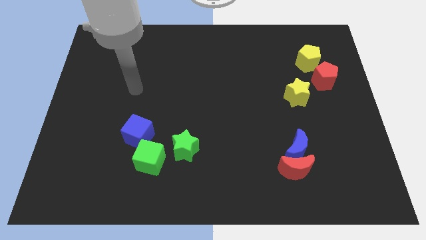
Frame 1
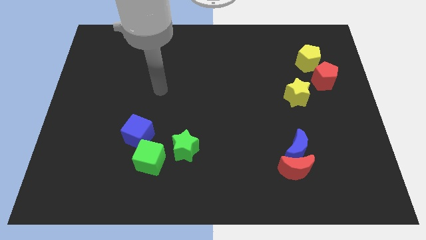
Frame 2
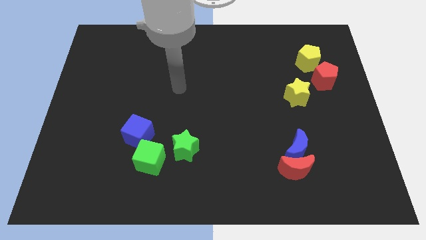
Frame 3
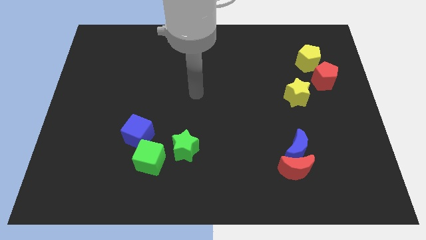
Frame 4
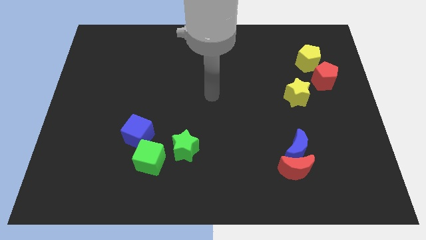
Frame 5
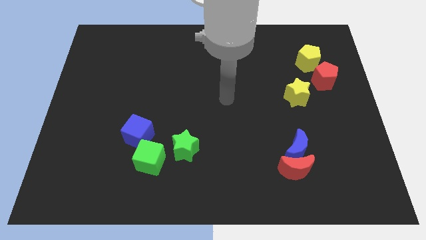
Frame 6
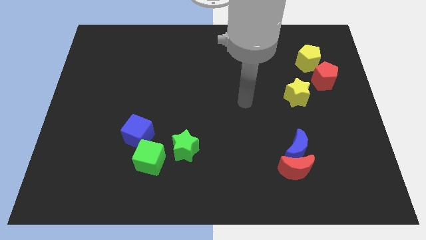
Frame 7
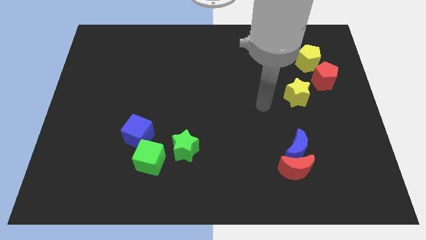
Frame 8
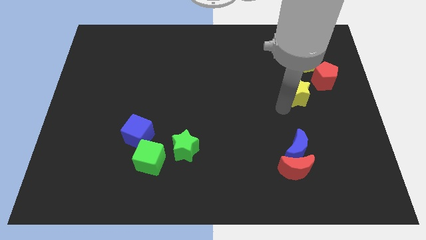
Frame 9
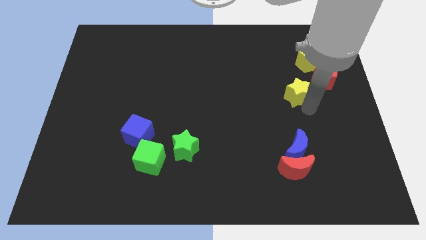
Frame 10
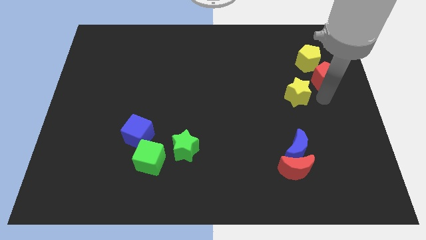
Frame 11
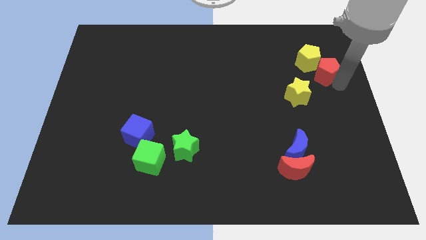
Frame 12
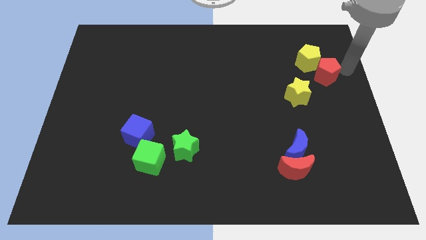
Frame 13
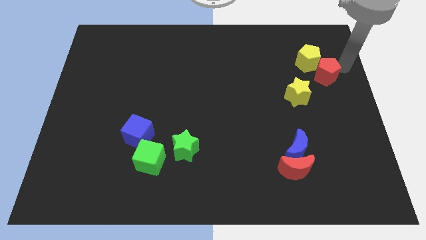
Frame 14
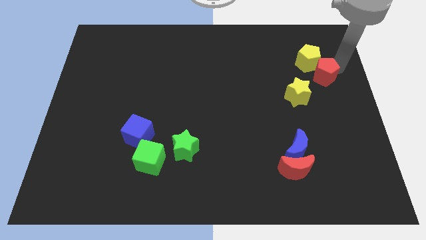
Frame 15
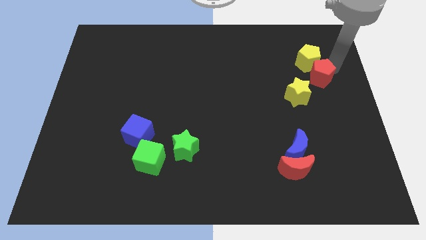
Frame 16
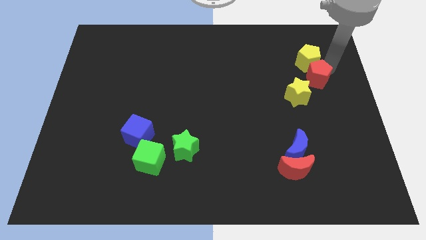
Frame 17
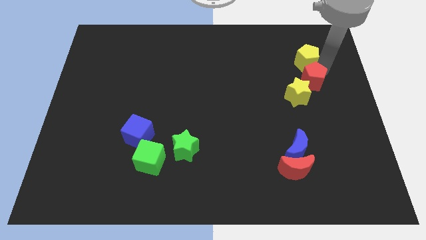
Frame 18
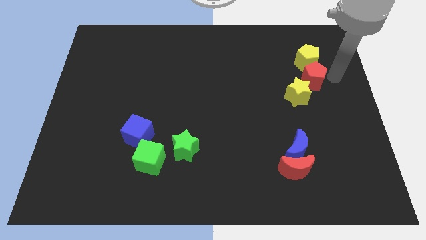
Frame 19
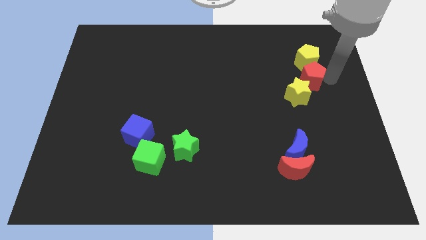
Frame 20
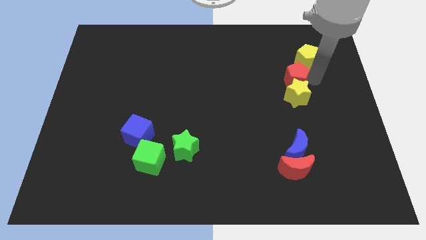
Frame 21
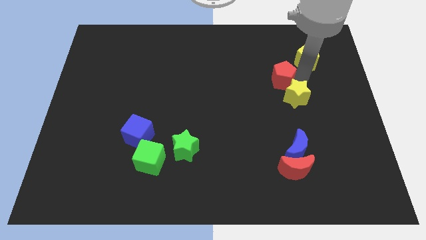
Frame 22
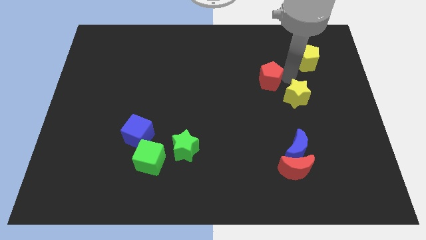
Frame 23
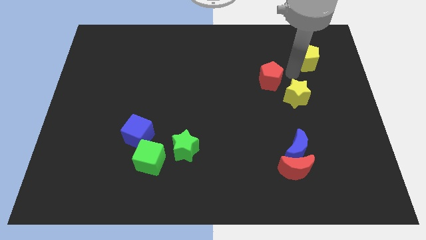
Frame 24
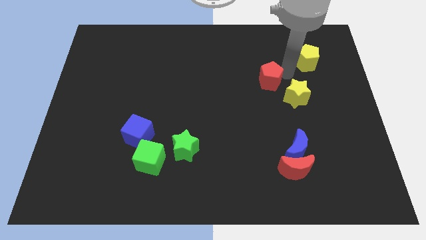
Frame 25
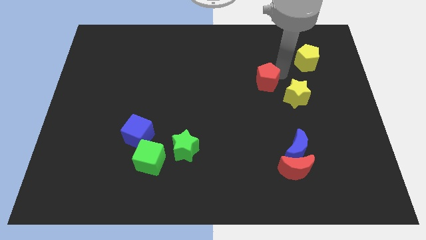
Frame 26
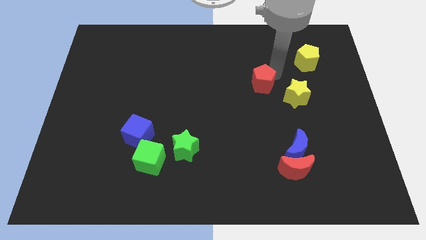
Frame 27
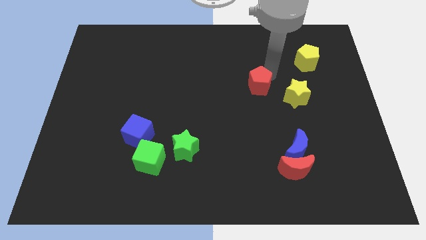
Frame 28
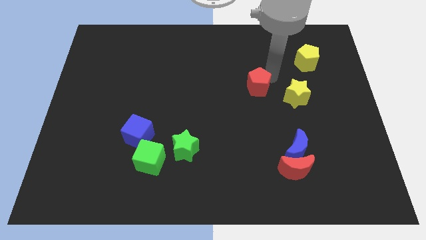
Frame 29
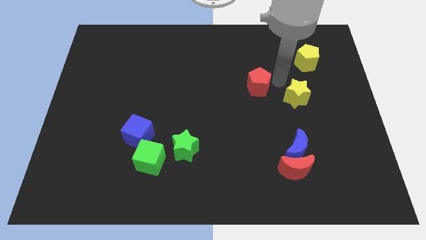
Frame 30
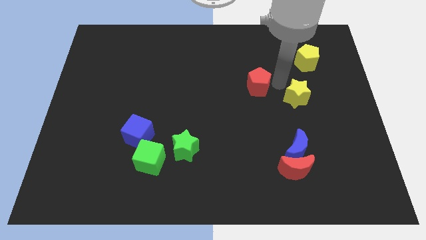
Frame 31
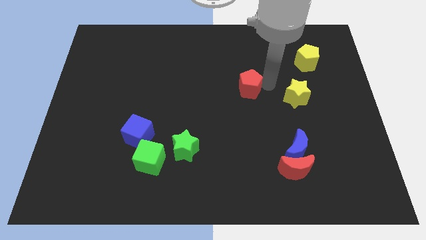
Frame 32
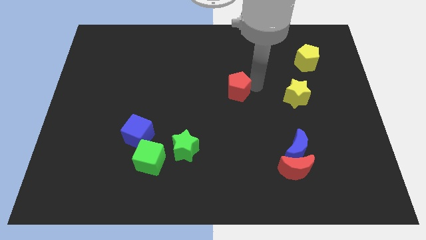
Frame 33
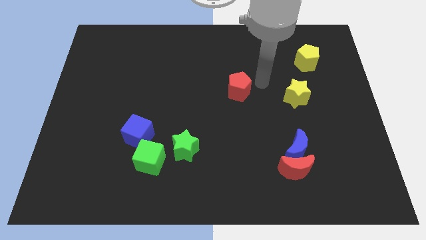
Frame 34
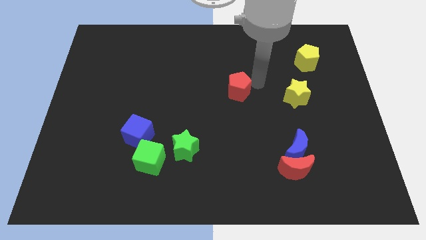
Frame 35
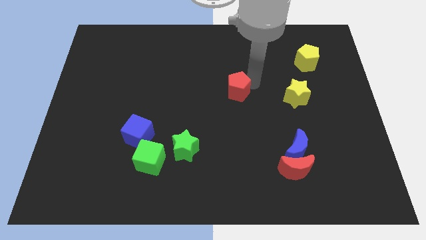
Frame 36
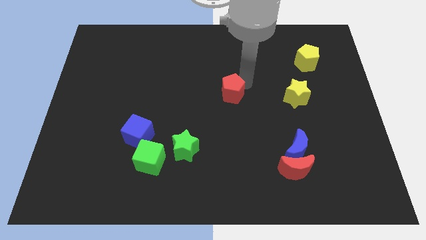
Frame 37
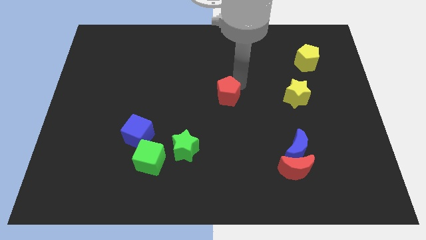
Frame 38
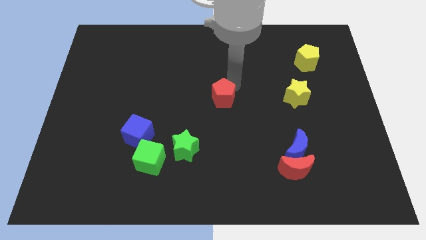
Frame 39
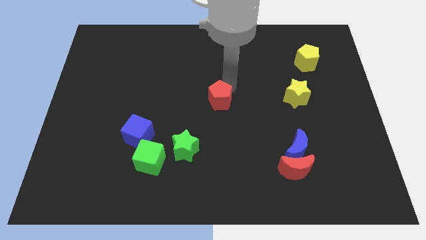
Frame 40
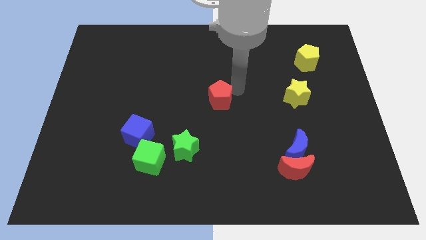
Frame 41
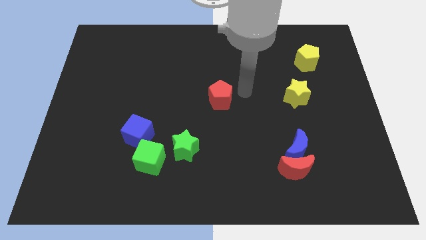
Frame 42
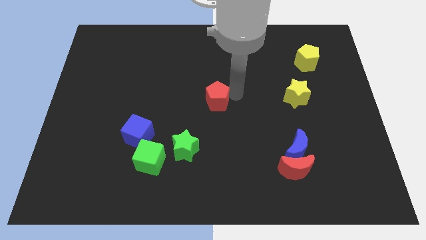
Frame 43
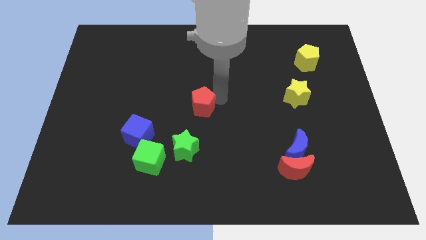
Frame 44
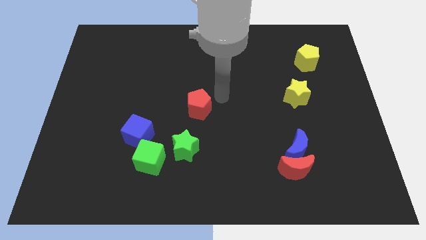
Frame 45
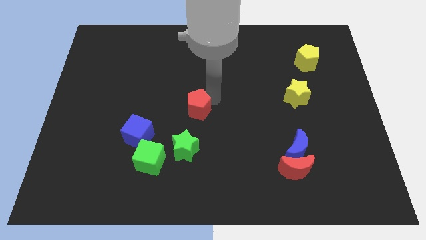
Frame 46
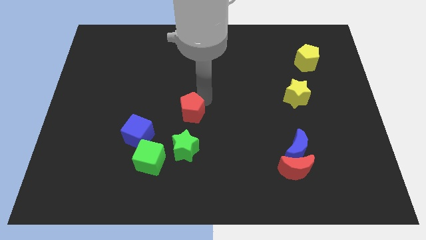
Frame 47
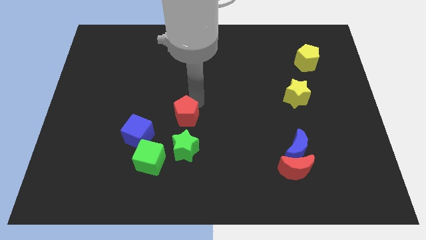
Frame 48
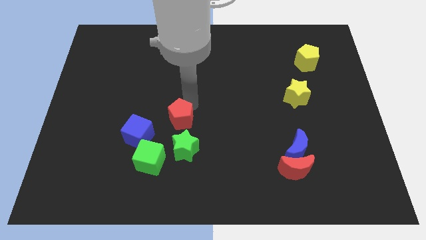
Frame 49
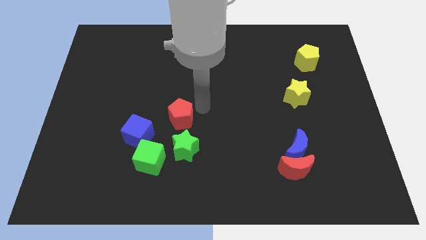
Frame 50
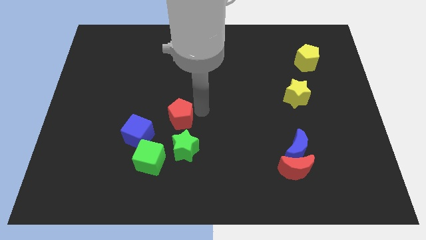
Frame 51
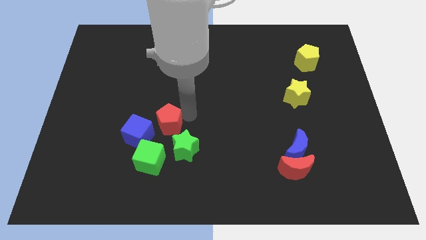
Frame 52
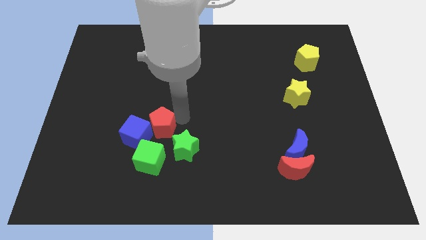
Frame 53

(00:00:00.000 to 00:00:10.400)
slide the red pentagon towards the blue cube
